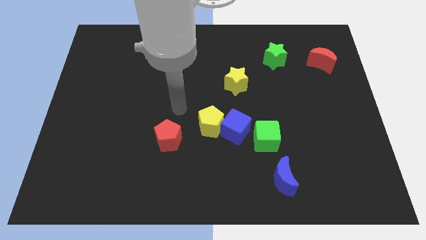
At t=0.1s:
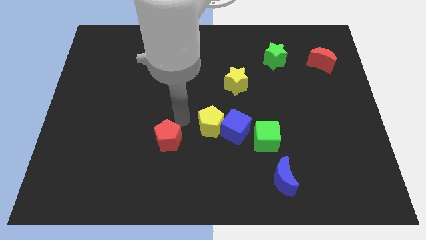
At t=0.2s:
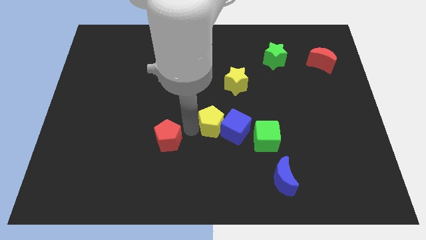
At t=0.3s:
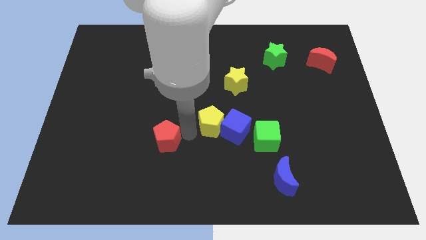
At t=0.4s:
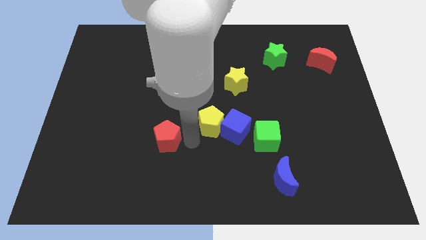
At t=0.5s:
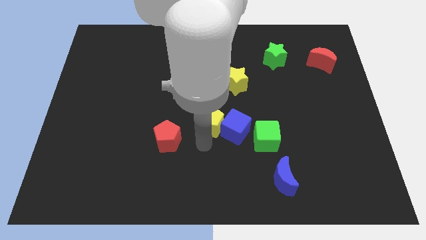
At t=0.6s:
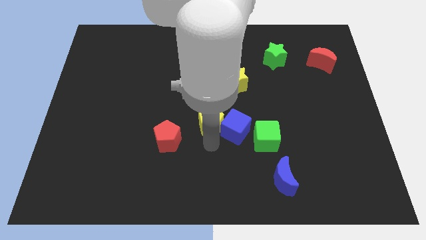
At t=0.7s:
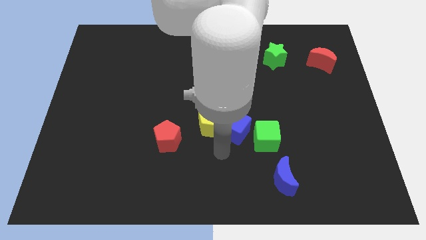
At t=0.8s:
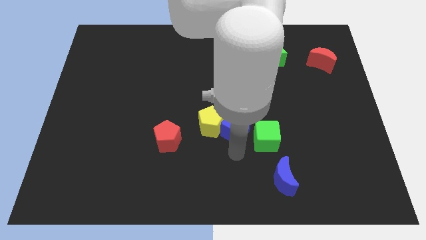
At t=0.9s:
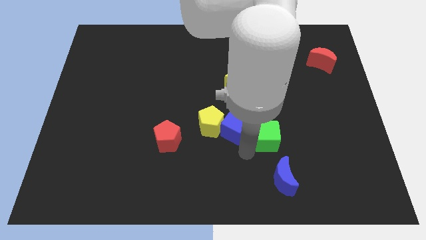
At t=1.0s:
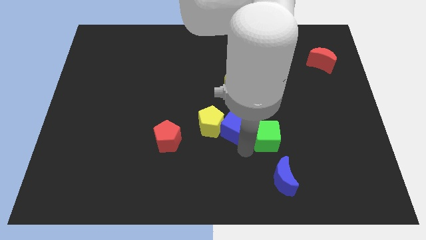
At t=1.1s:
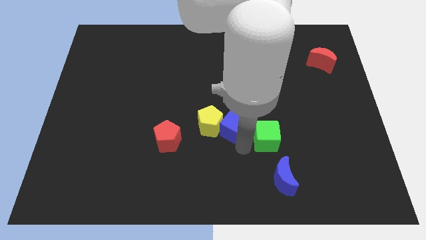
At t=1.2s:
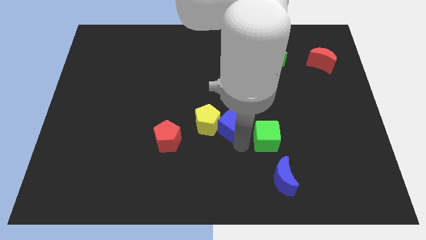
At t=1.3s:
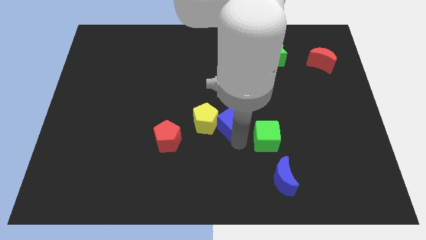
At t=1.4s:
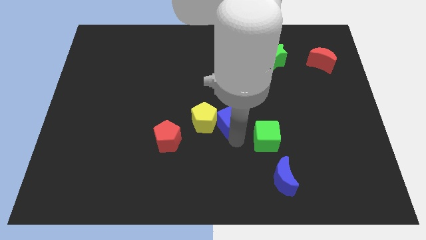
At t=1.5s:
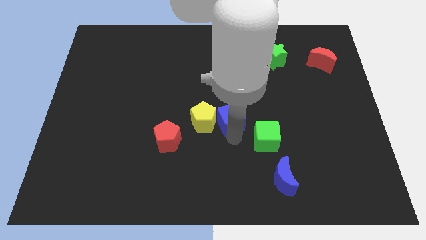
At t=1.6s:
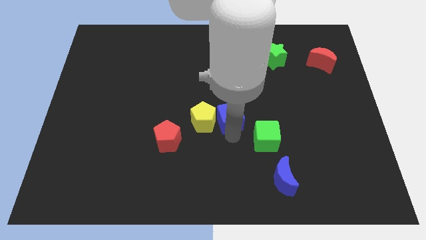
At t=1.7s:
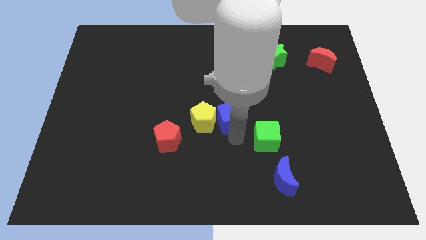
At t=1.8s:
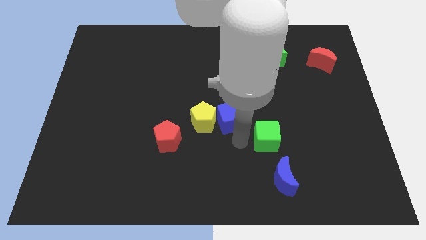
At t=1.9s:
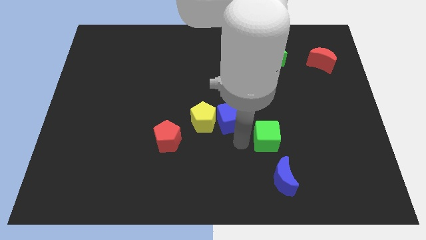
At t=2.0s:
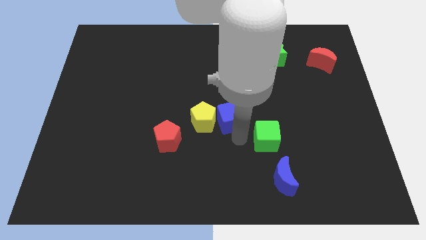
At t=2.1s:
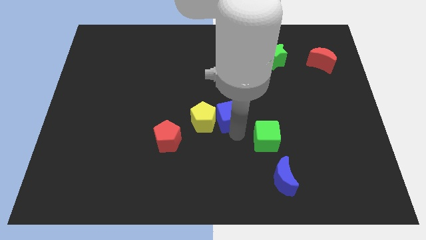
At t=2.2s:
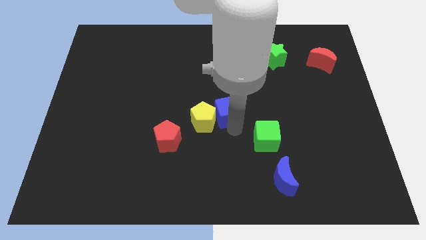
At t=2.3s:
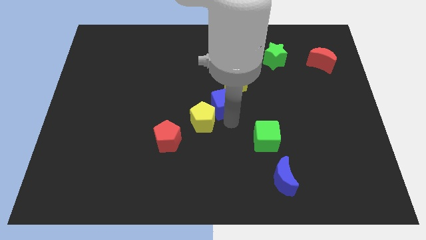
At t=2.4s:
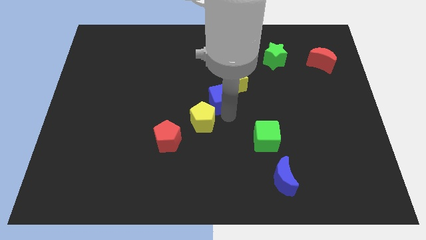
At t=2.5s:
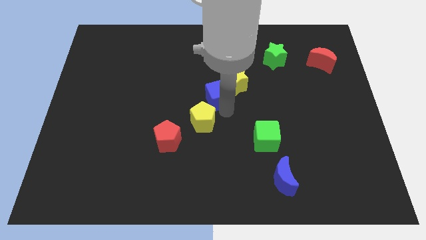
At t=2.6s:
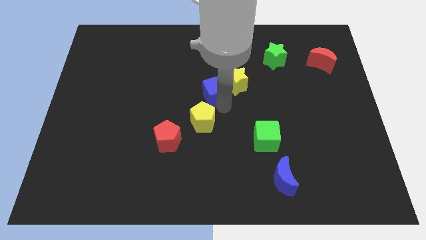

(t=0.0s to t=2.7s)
pull the blue cube apart from the yellow pentagon and green cube

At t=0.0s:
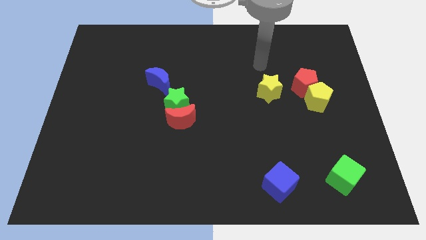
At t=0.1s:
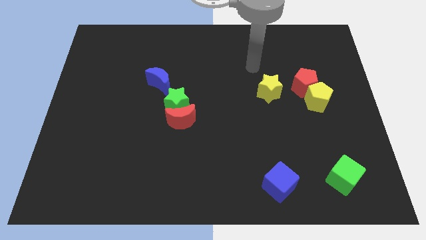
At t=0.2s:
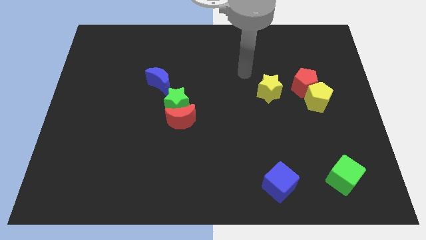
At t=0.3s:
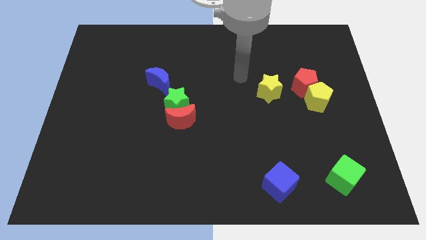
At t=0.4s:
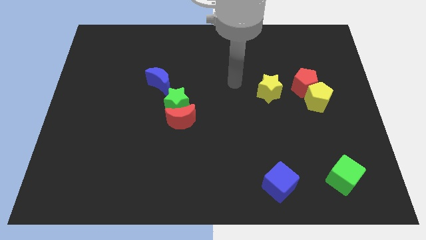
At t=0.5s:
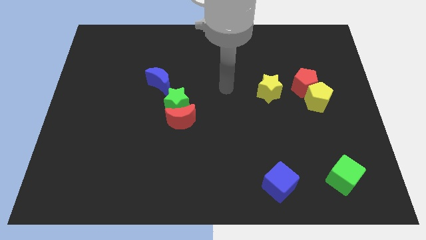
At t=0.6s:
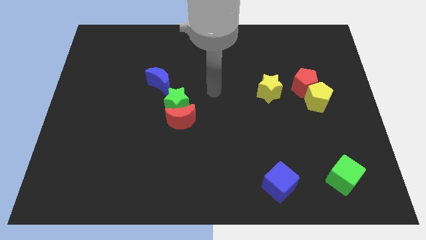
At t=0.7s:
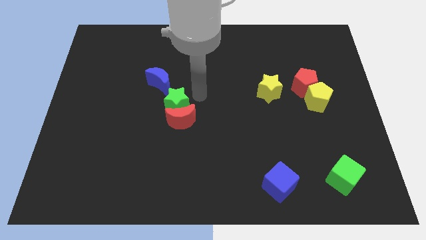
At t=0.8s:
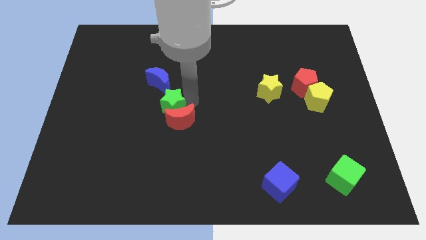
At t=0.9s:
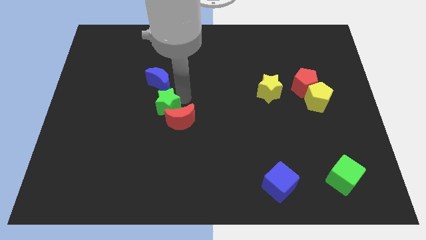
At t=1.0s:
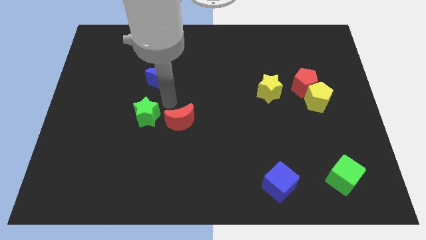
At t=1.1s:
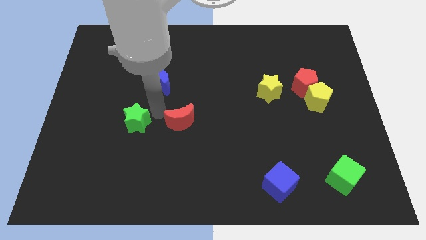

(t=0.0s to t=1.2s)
move the red moon away from the green star

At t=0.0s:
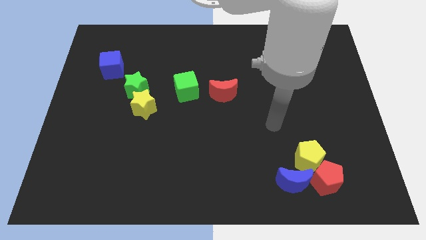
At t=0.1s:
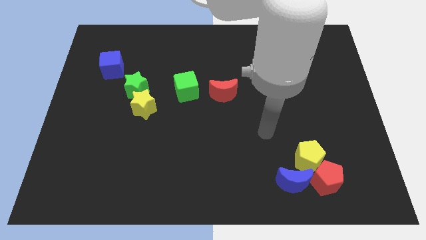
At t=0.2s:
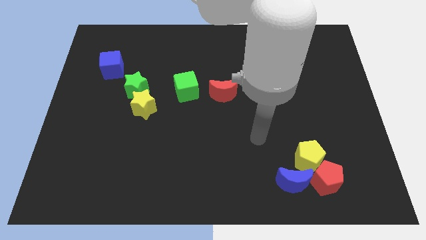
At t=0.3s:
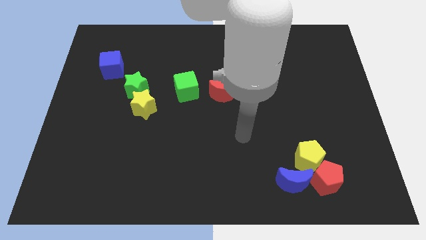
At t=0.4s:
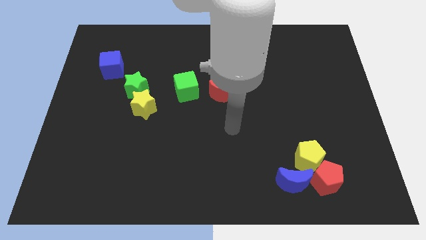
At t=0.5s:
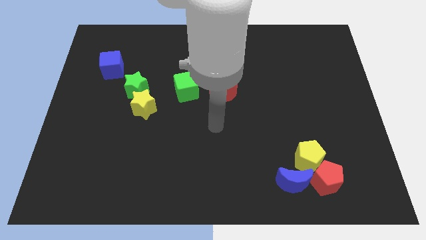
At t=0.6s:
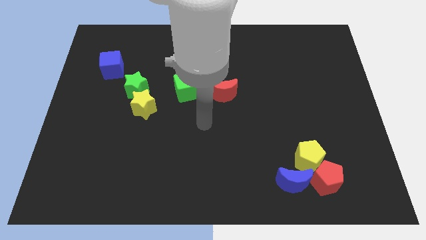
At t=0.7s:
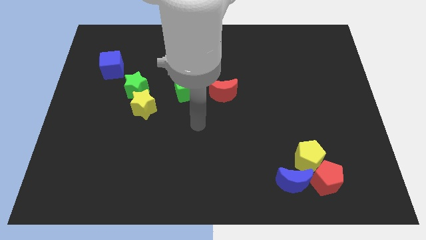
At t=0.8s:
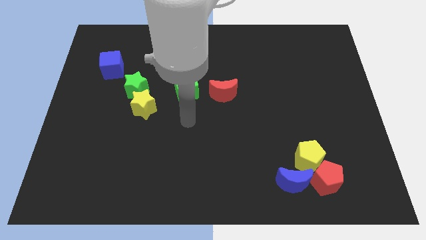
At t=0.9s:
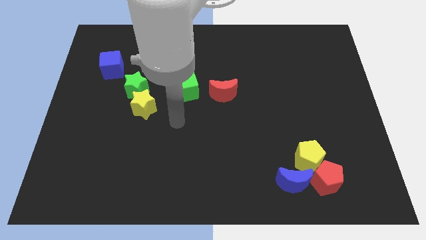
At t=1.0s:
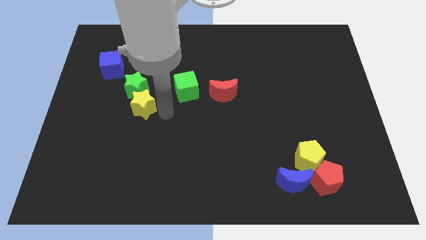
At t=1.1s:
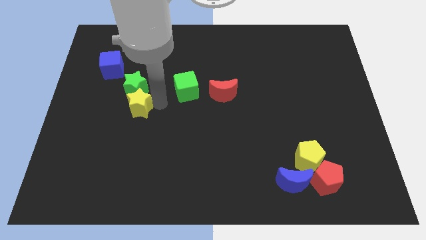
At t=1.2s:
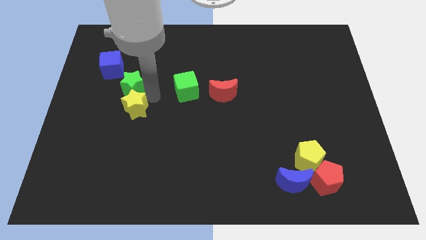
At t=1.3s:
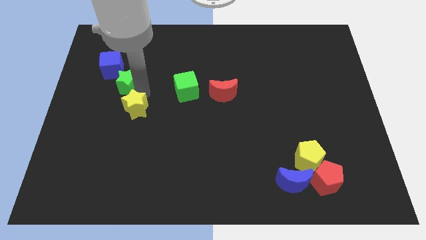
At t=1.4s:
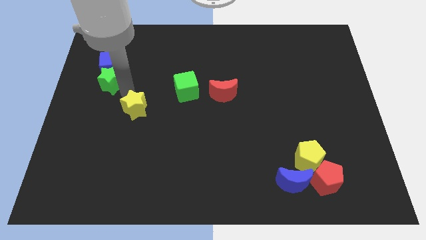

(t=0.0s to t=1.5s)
separate the yellow star from the green star

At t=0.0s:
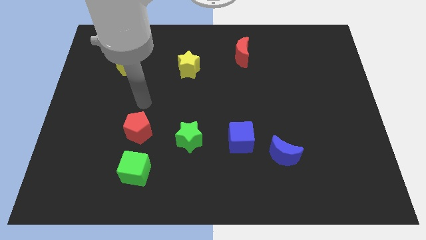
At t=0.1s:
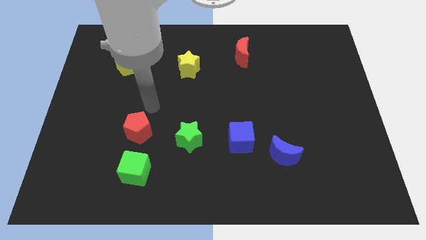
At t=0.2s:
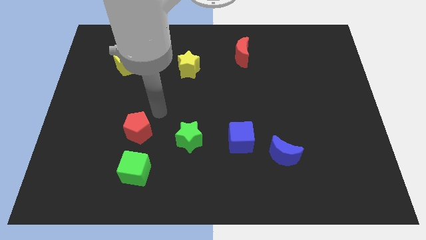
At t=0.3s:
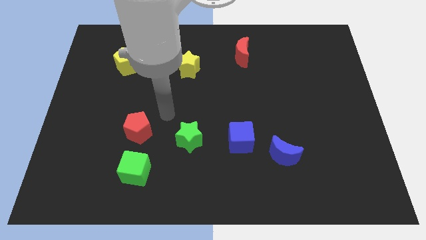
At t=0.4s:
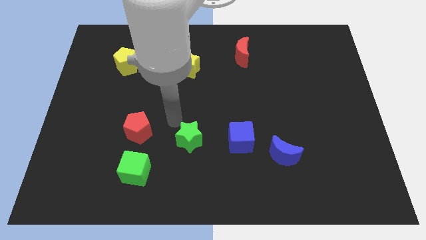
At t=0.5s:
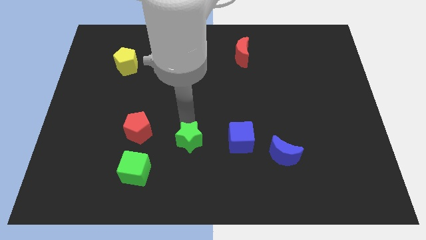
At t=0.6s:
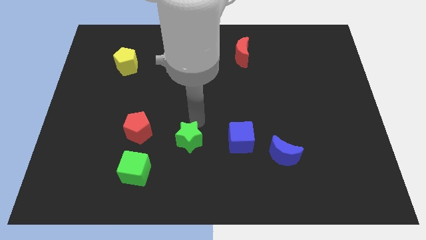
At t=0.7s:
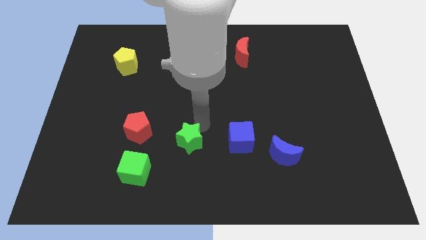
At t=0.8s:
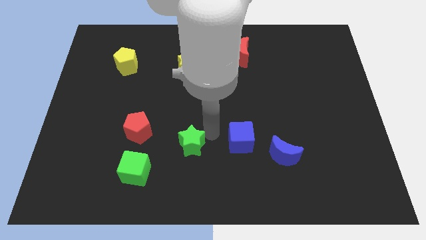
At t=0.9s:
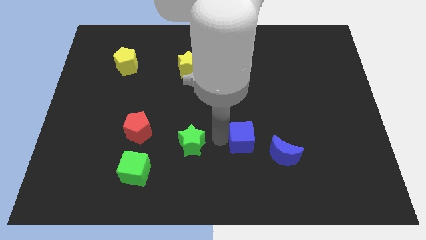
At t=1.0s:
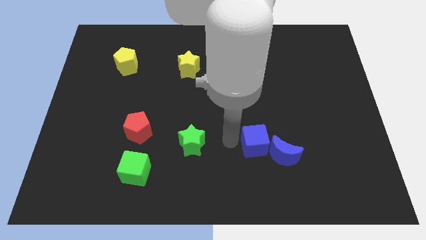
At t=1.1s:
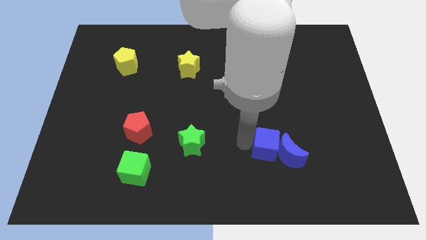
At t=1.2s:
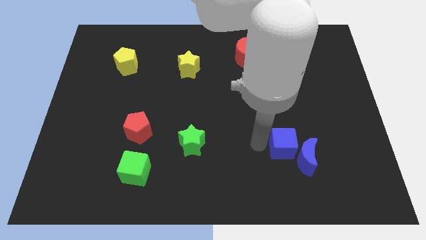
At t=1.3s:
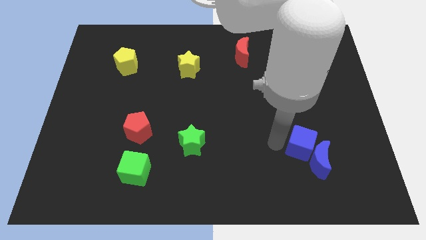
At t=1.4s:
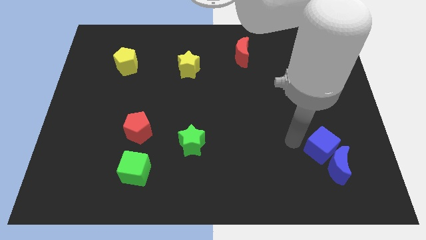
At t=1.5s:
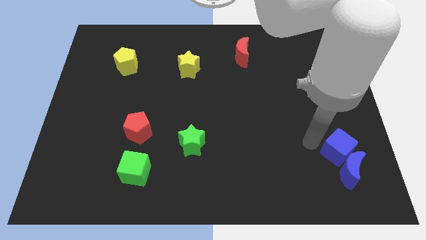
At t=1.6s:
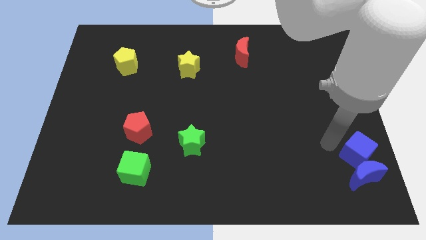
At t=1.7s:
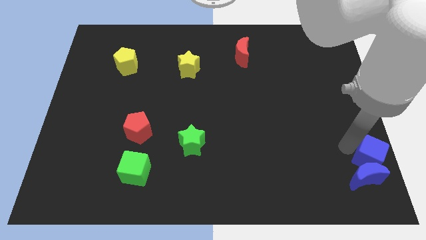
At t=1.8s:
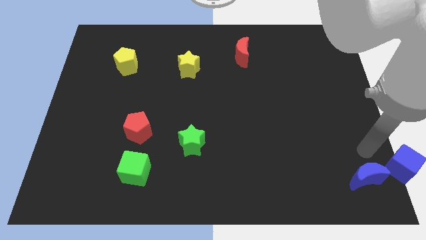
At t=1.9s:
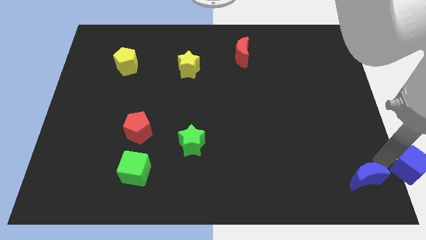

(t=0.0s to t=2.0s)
pull the blue moon apart from the blue cube

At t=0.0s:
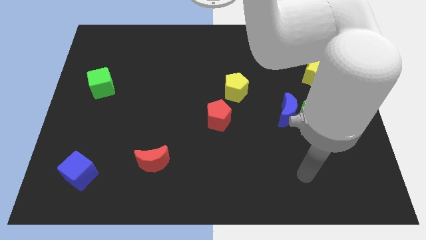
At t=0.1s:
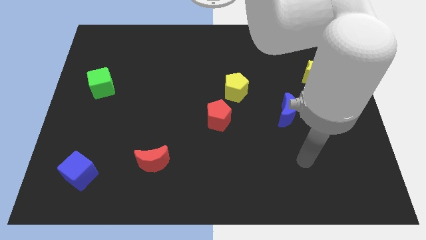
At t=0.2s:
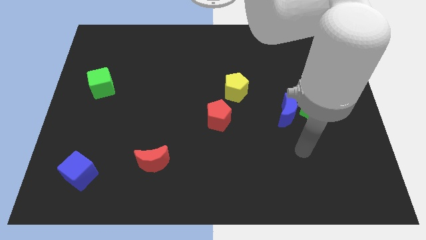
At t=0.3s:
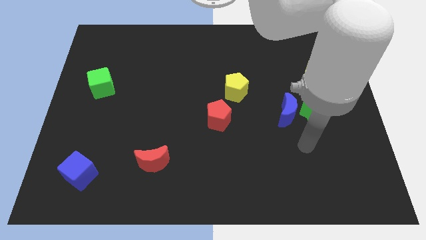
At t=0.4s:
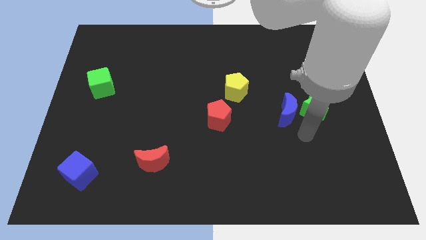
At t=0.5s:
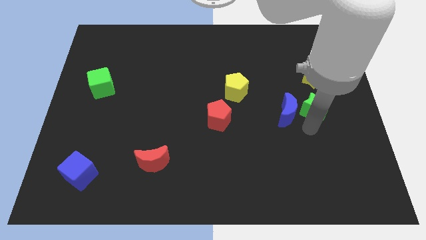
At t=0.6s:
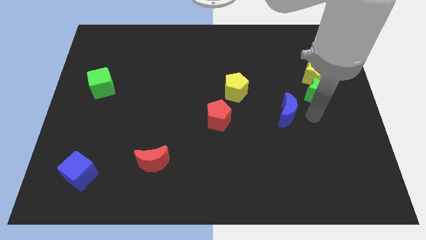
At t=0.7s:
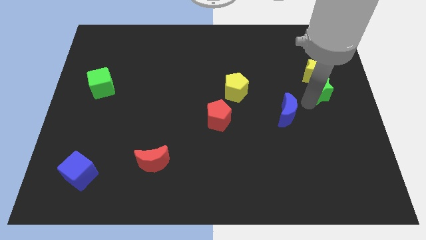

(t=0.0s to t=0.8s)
move the blue moon away from the green star

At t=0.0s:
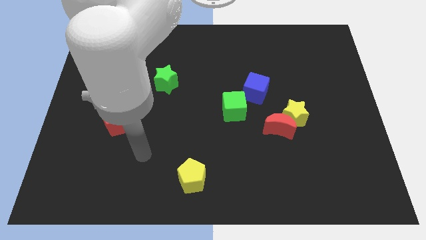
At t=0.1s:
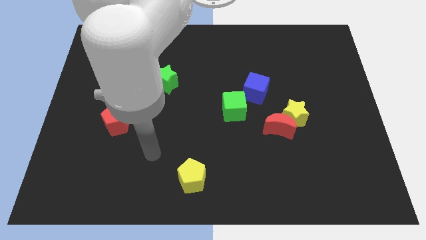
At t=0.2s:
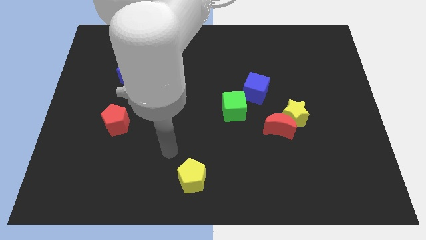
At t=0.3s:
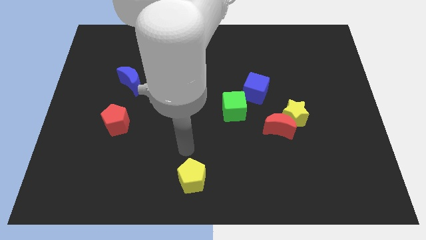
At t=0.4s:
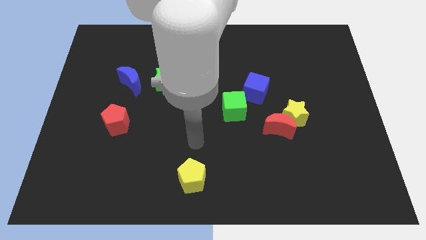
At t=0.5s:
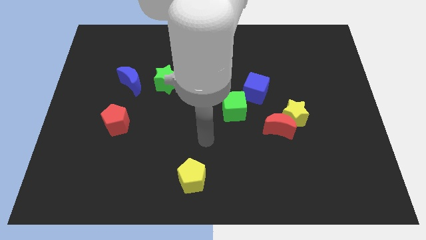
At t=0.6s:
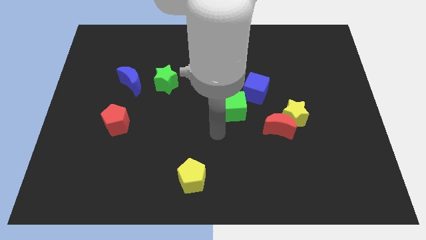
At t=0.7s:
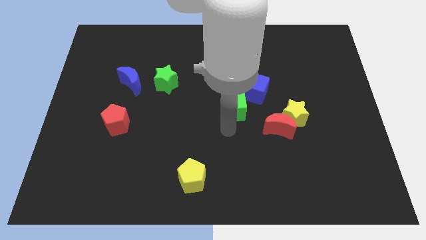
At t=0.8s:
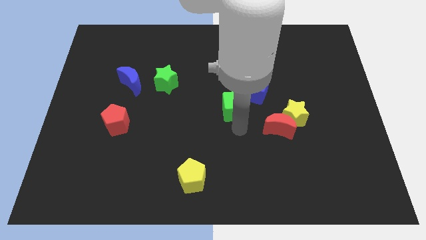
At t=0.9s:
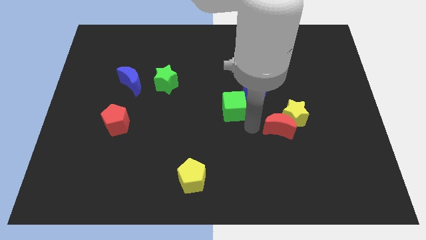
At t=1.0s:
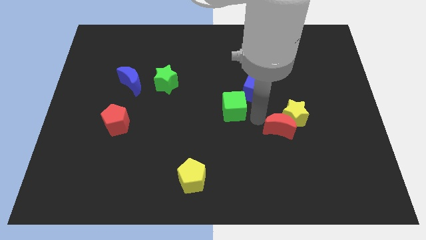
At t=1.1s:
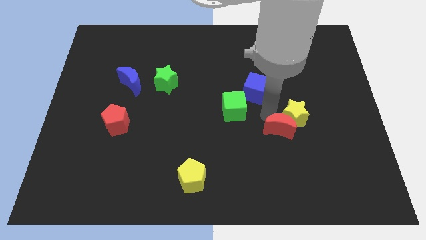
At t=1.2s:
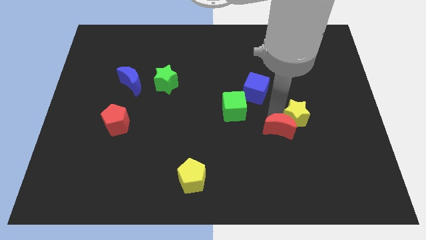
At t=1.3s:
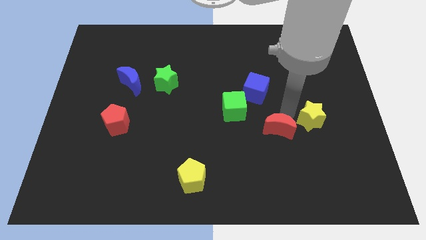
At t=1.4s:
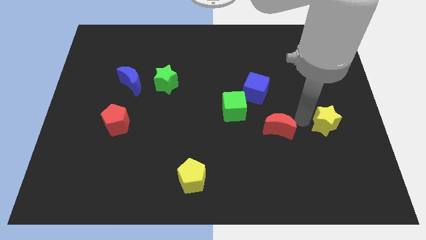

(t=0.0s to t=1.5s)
separate the red moon from the yellow star
